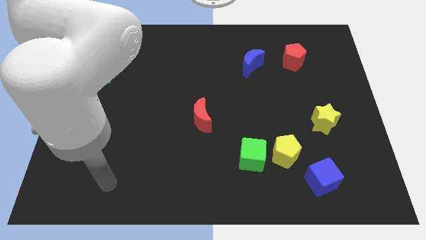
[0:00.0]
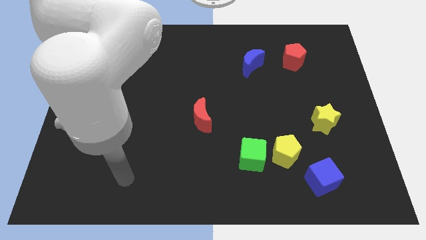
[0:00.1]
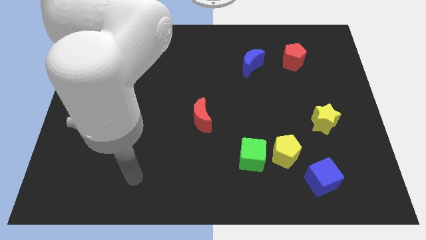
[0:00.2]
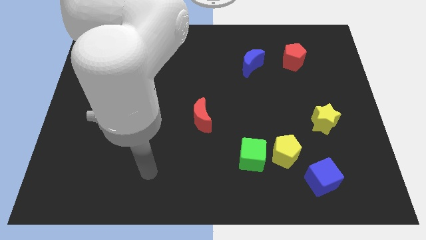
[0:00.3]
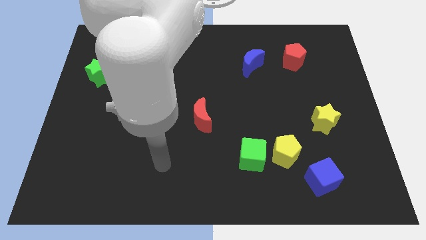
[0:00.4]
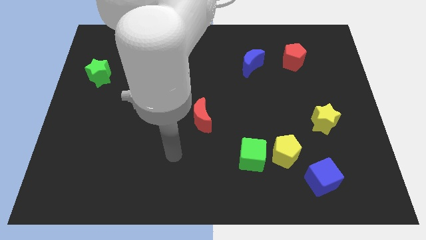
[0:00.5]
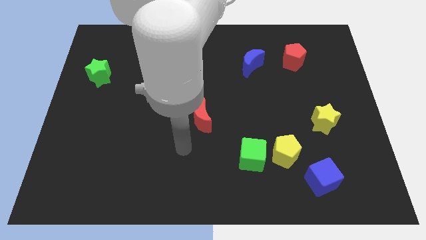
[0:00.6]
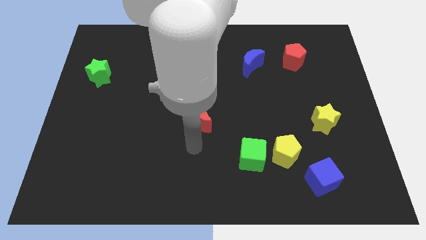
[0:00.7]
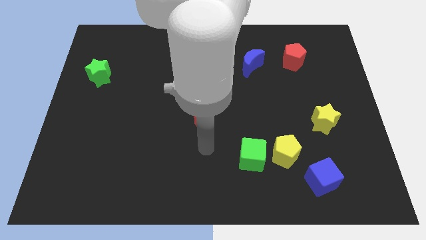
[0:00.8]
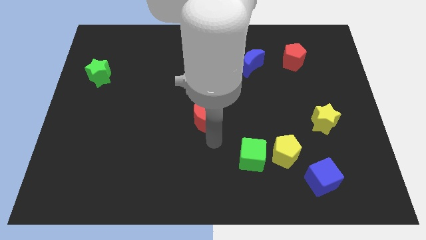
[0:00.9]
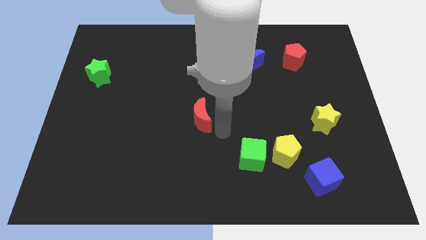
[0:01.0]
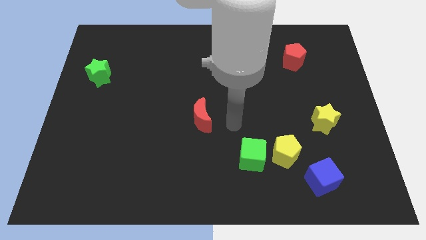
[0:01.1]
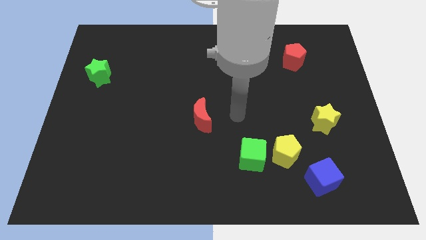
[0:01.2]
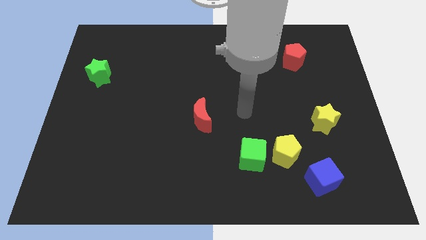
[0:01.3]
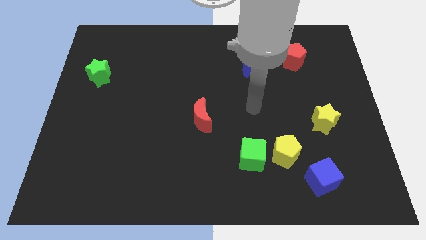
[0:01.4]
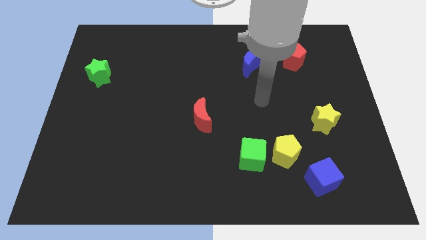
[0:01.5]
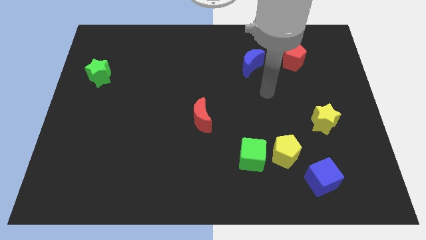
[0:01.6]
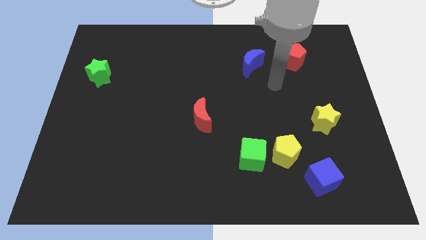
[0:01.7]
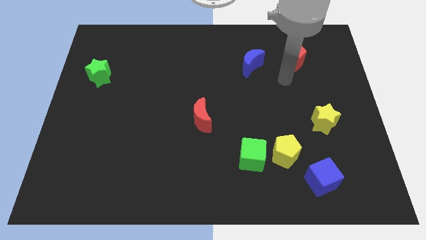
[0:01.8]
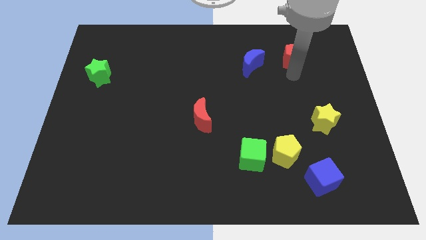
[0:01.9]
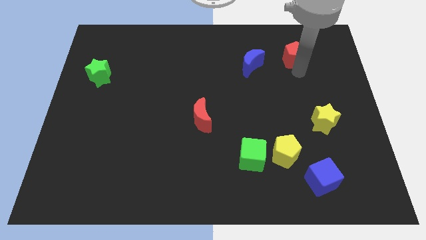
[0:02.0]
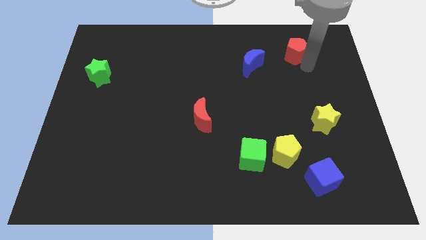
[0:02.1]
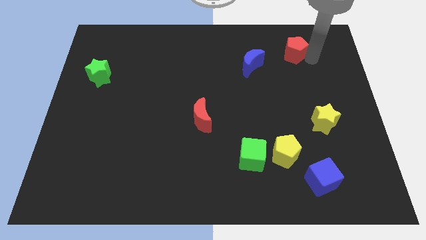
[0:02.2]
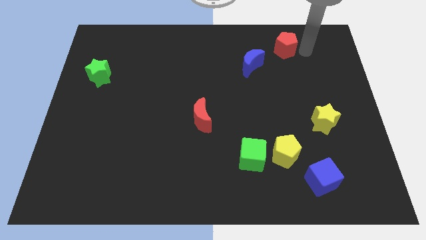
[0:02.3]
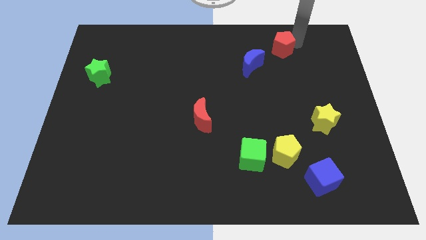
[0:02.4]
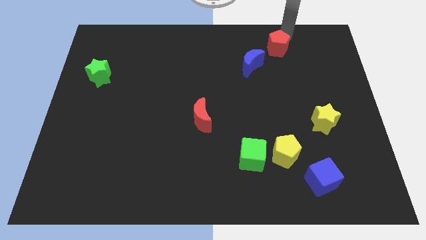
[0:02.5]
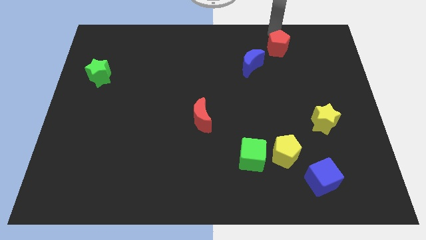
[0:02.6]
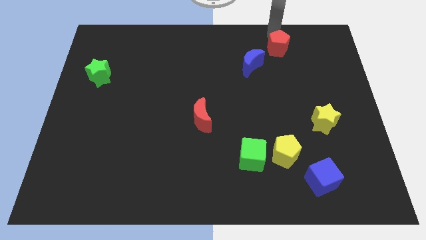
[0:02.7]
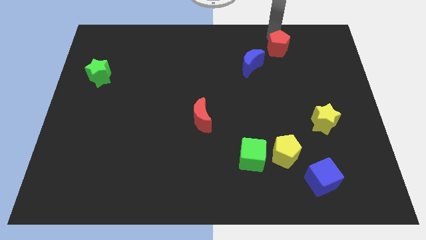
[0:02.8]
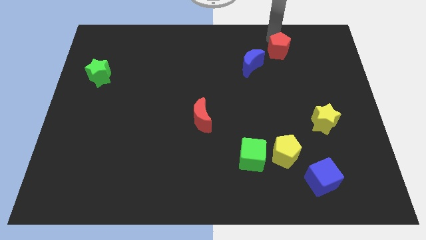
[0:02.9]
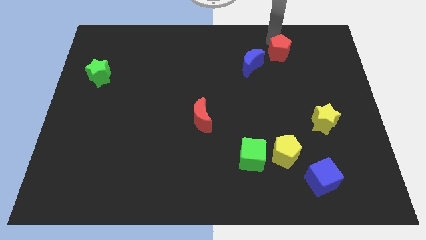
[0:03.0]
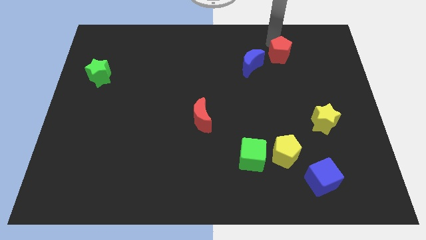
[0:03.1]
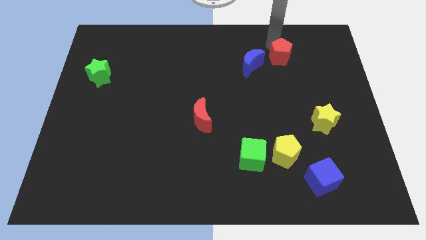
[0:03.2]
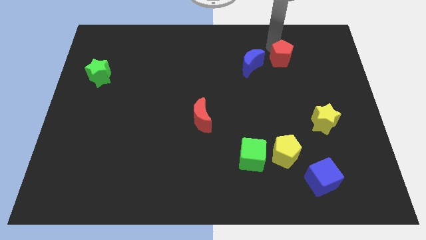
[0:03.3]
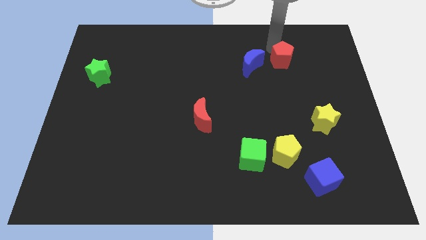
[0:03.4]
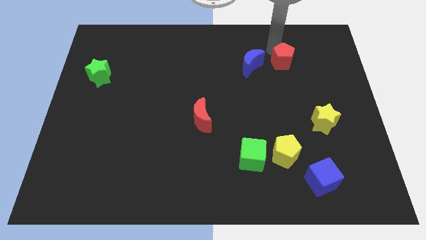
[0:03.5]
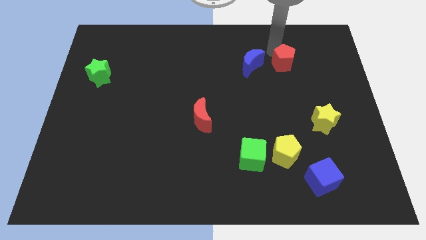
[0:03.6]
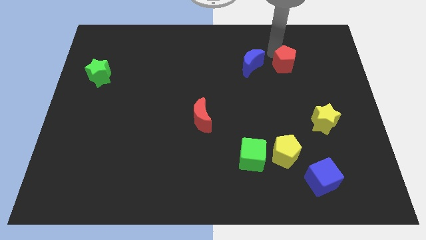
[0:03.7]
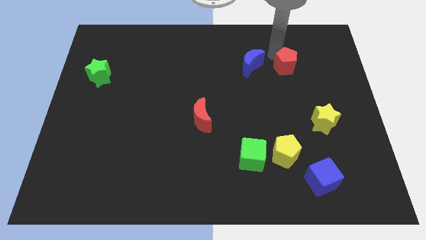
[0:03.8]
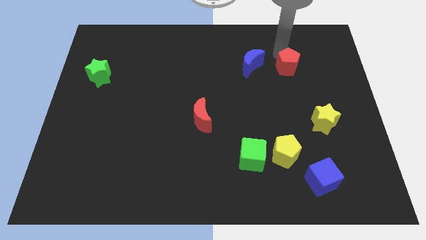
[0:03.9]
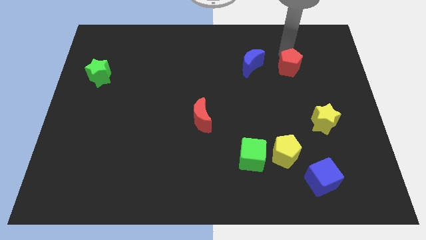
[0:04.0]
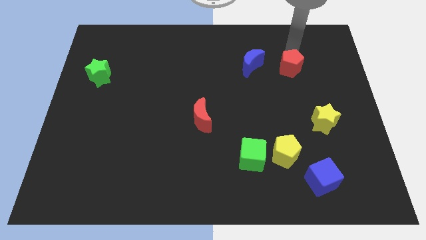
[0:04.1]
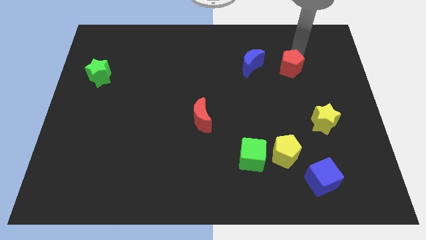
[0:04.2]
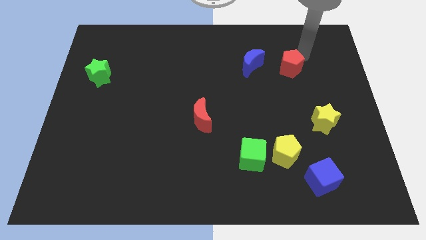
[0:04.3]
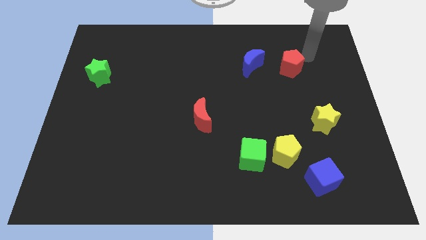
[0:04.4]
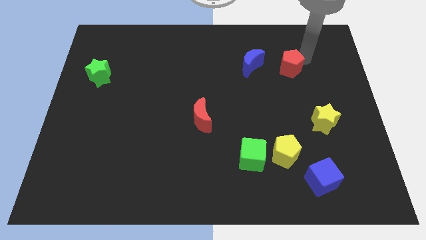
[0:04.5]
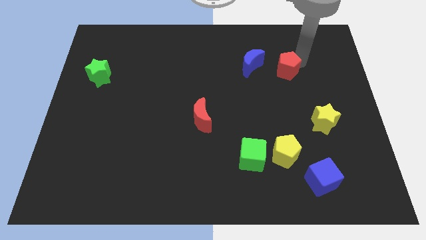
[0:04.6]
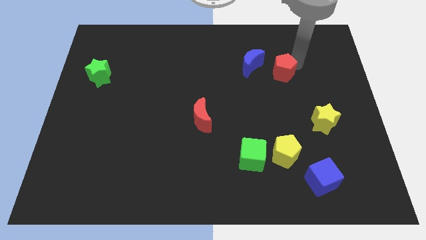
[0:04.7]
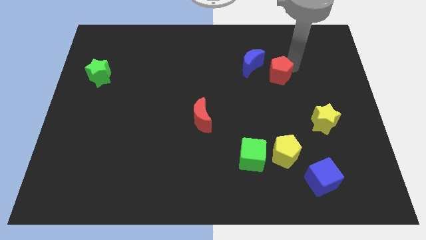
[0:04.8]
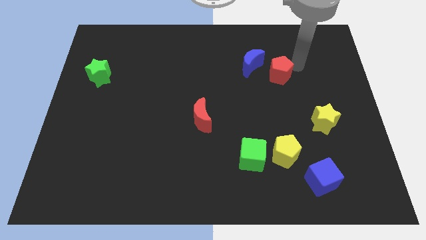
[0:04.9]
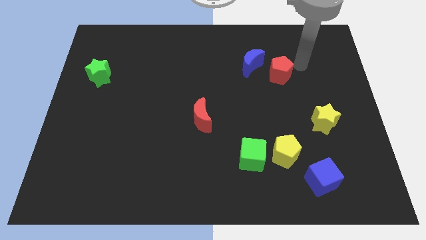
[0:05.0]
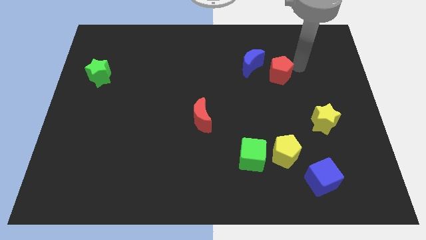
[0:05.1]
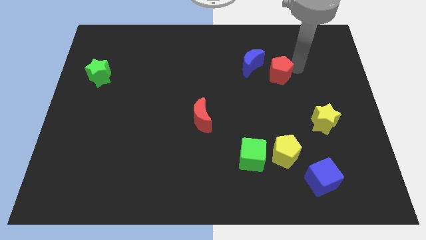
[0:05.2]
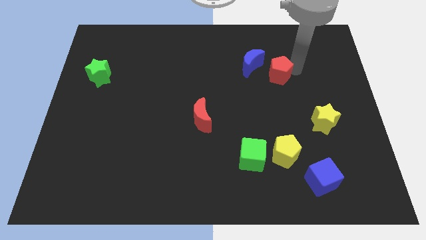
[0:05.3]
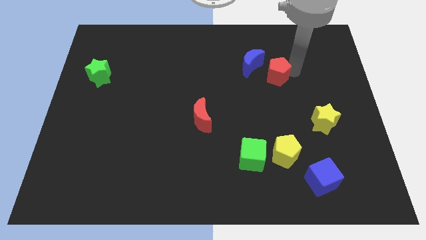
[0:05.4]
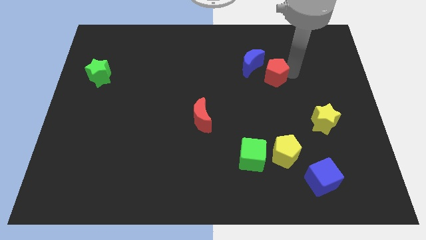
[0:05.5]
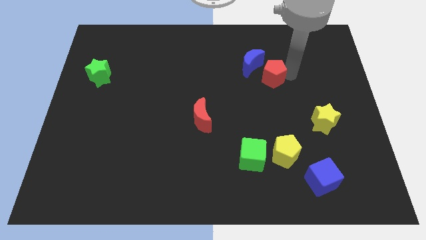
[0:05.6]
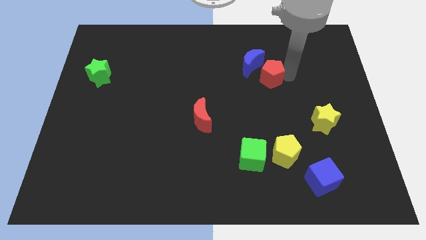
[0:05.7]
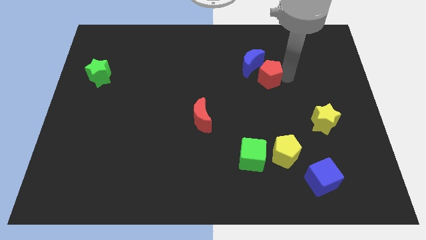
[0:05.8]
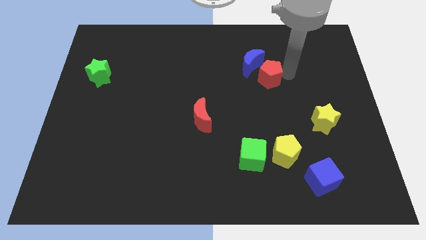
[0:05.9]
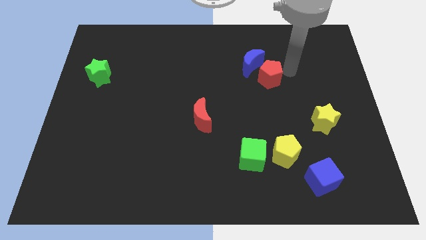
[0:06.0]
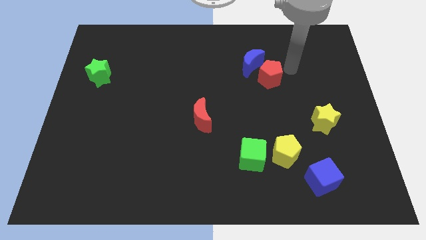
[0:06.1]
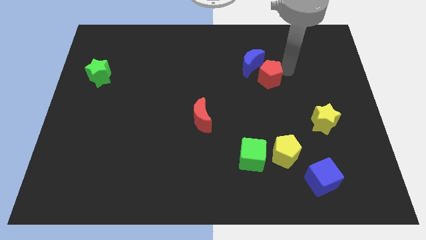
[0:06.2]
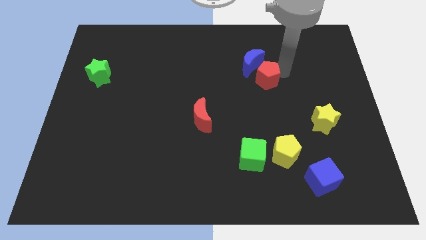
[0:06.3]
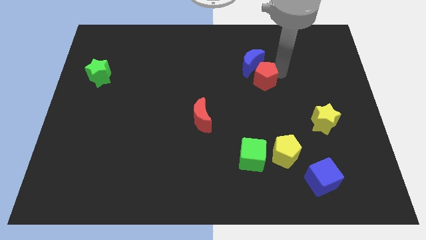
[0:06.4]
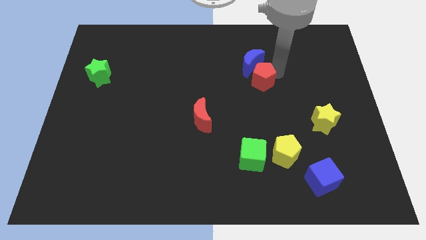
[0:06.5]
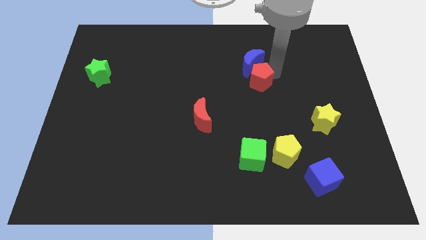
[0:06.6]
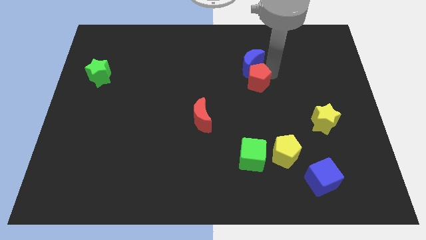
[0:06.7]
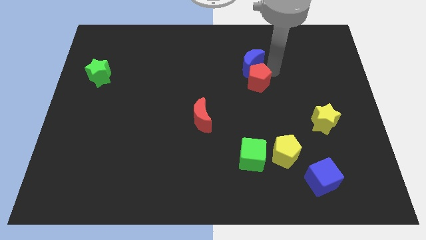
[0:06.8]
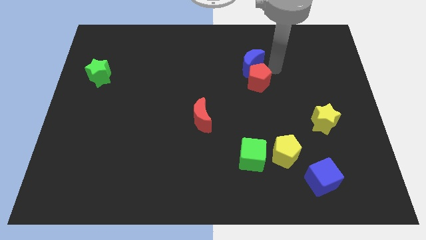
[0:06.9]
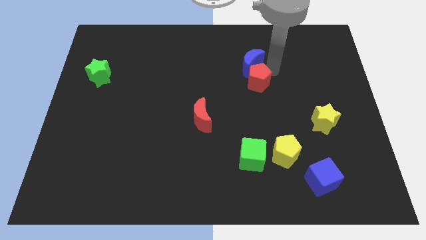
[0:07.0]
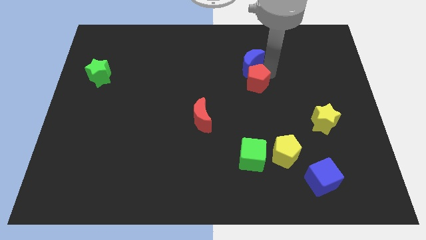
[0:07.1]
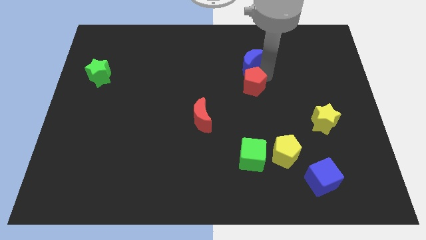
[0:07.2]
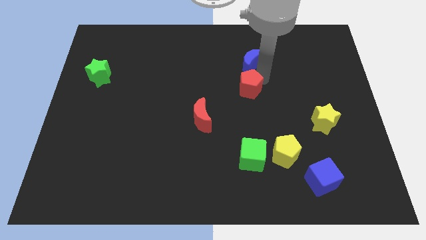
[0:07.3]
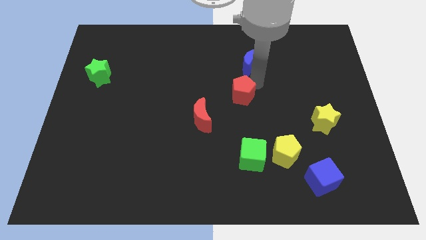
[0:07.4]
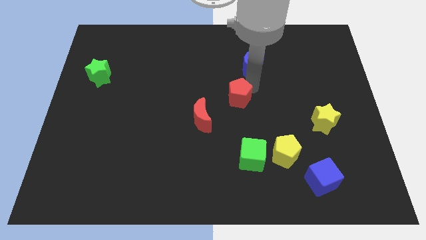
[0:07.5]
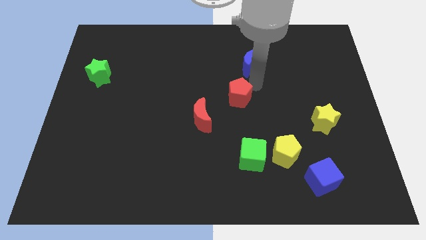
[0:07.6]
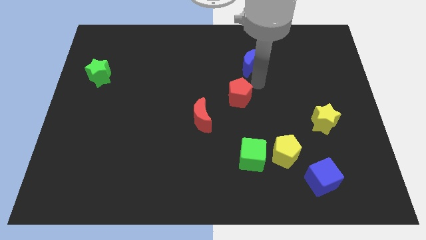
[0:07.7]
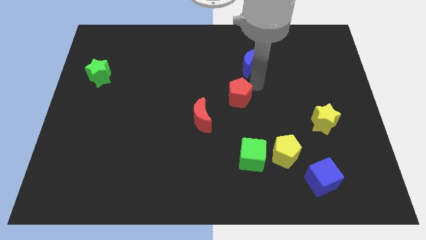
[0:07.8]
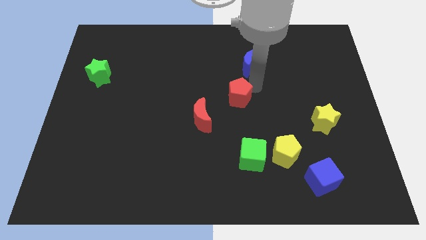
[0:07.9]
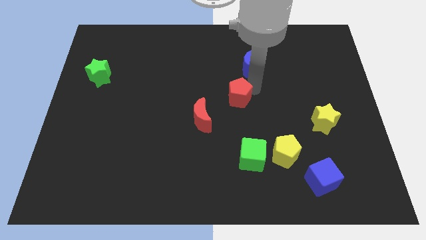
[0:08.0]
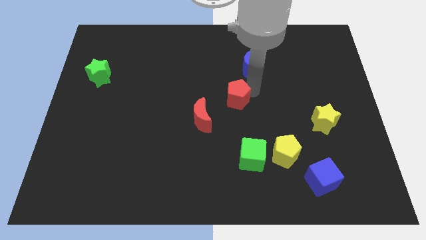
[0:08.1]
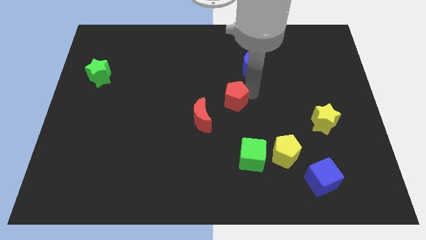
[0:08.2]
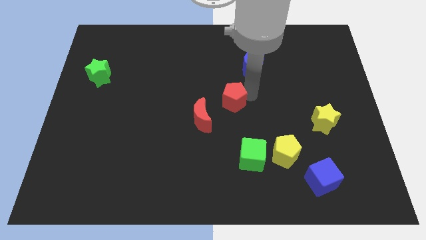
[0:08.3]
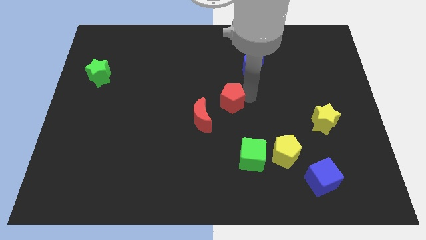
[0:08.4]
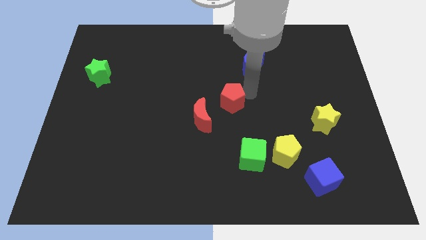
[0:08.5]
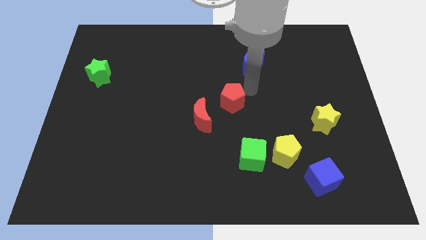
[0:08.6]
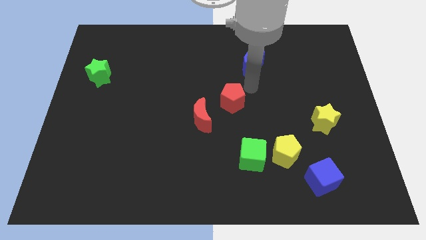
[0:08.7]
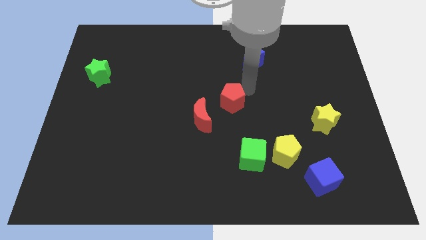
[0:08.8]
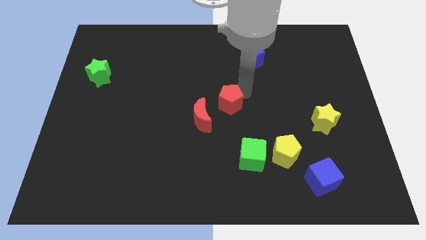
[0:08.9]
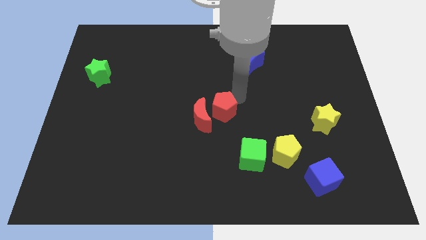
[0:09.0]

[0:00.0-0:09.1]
put the red pentagon towards the red moon
